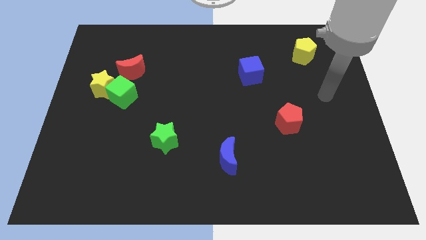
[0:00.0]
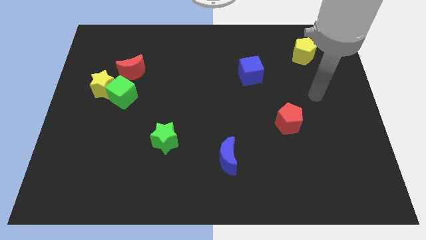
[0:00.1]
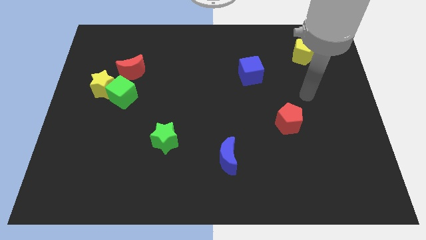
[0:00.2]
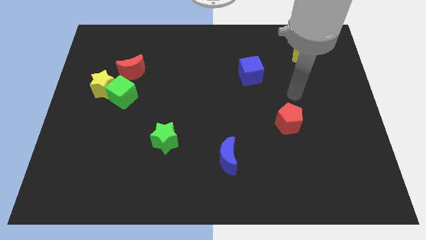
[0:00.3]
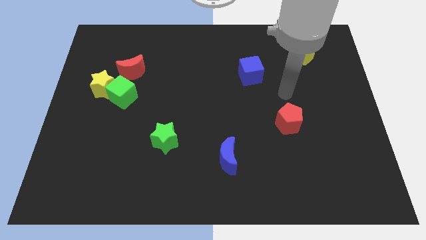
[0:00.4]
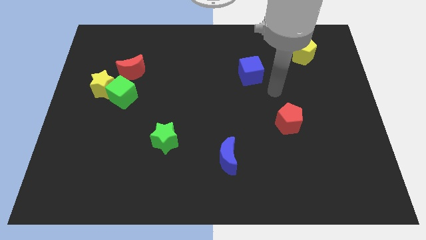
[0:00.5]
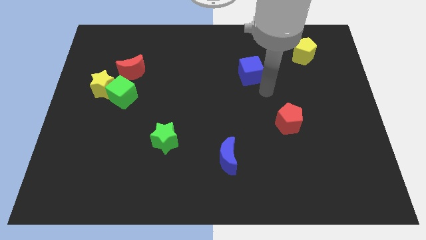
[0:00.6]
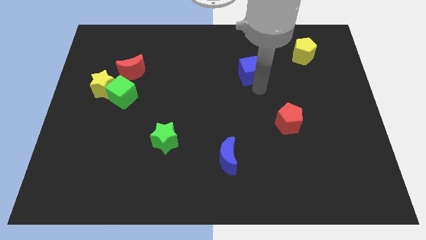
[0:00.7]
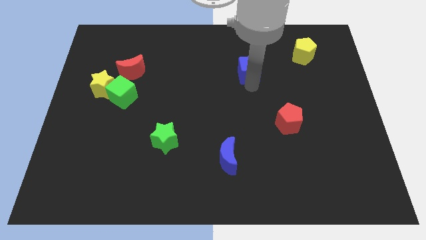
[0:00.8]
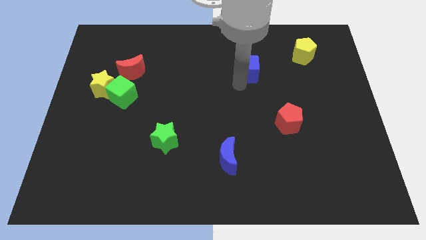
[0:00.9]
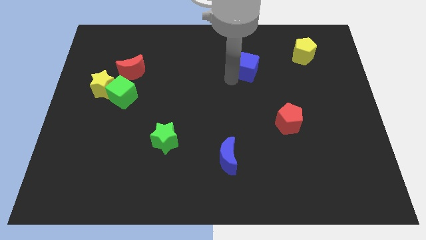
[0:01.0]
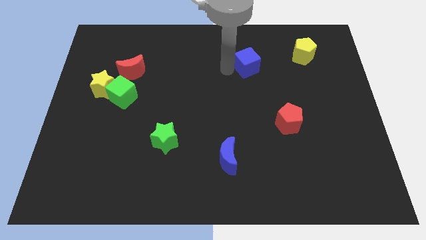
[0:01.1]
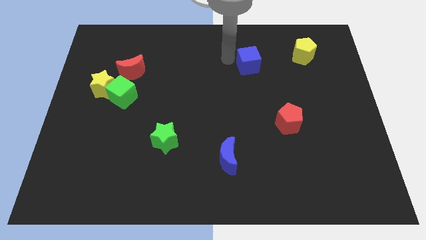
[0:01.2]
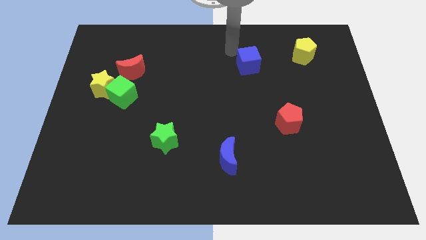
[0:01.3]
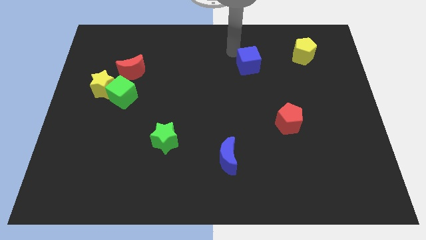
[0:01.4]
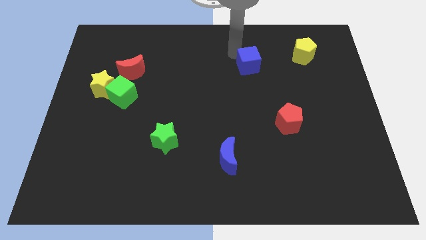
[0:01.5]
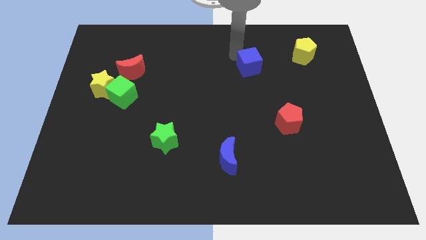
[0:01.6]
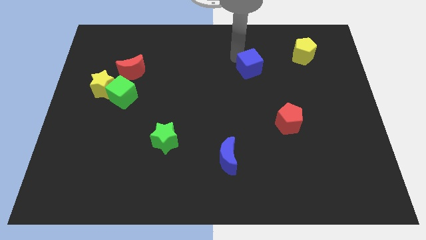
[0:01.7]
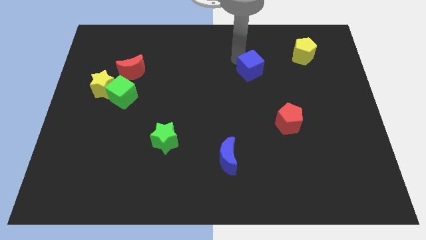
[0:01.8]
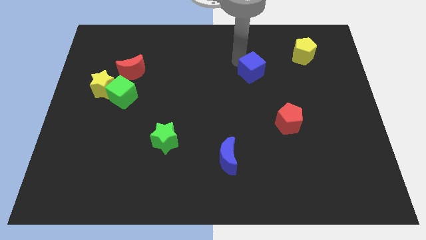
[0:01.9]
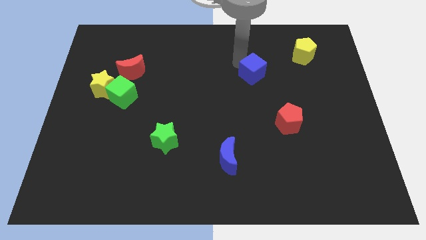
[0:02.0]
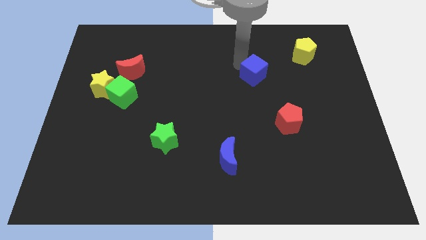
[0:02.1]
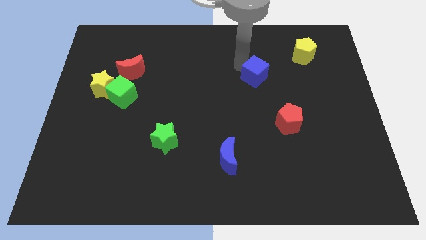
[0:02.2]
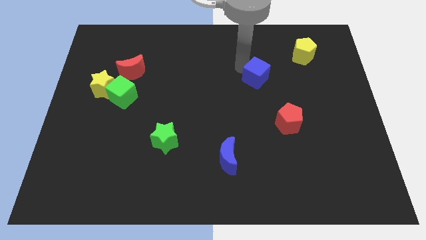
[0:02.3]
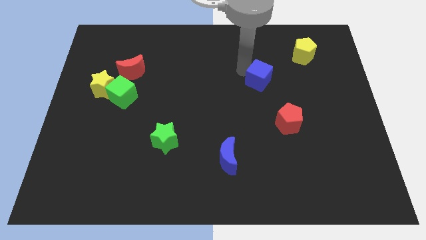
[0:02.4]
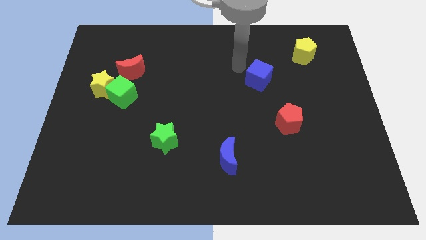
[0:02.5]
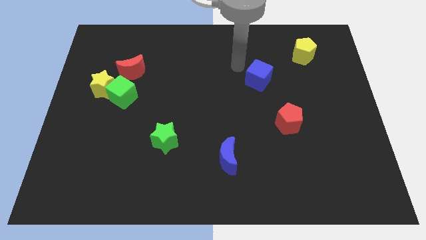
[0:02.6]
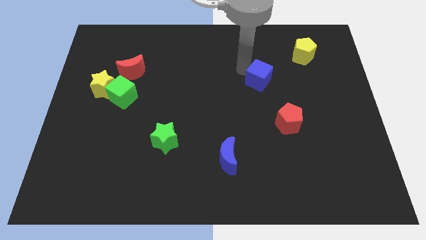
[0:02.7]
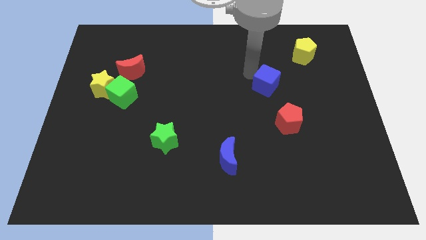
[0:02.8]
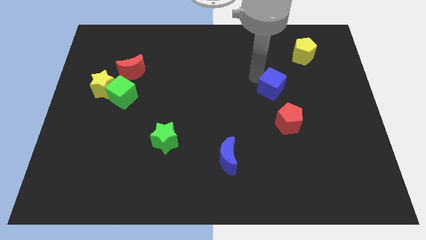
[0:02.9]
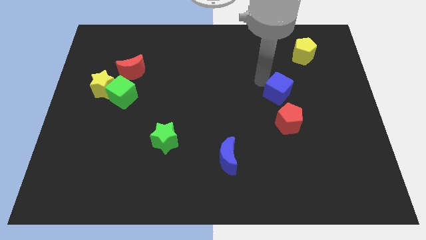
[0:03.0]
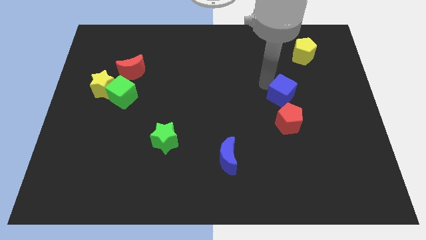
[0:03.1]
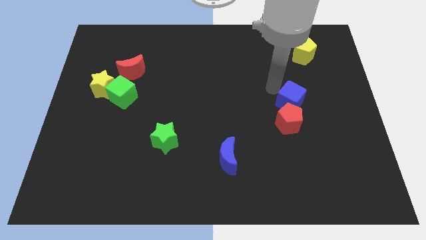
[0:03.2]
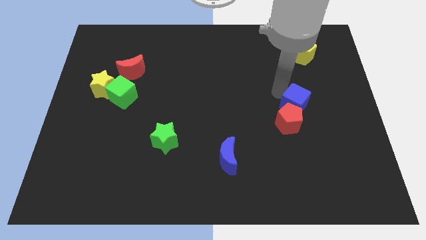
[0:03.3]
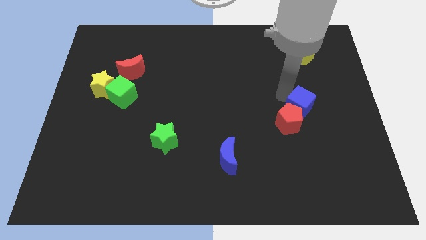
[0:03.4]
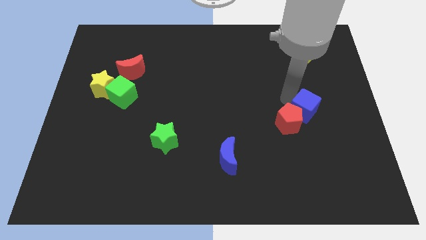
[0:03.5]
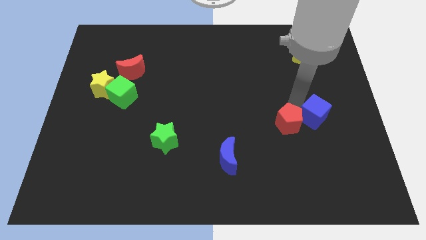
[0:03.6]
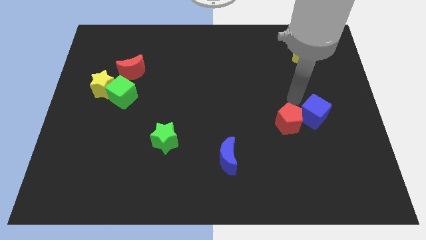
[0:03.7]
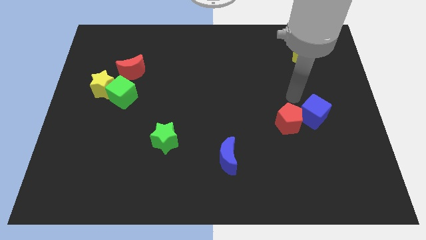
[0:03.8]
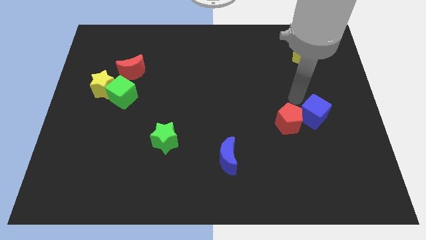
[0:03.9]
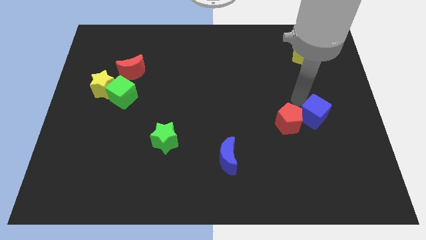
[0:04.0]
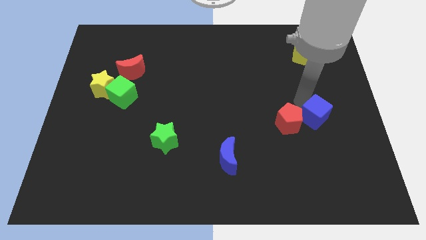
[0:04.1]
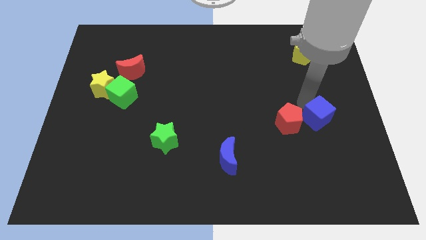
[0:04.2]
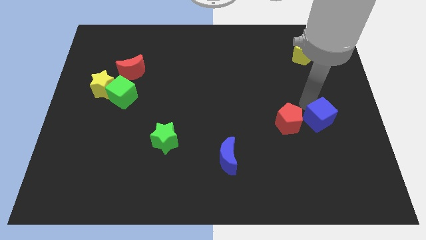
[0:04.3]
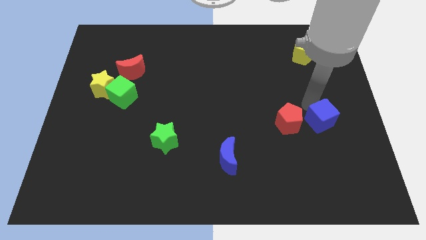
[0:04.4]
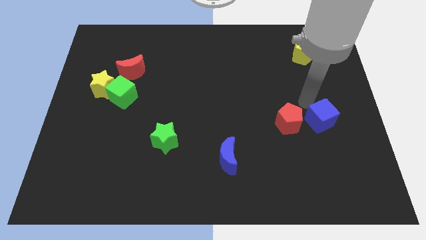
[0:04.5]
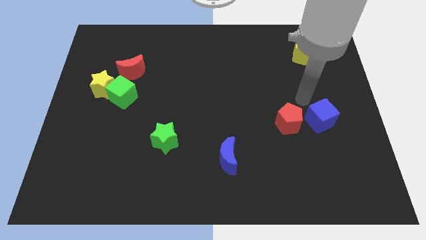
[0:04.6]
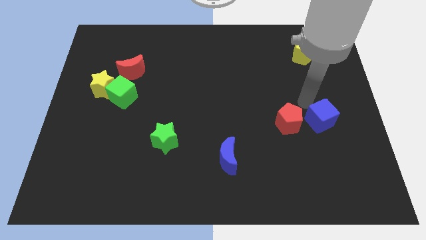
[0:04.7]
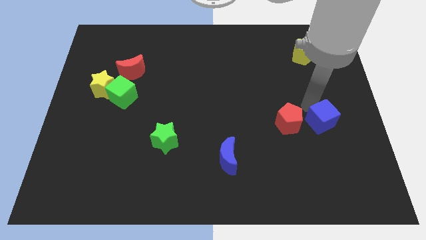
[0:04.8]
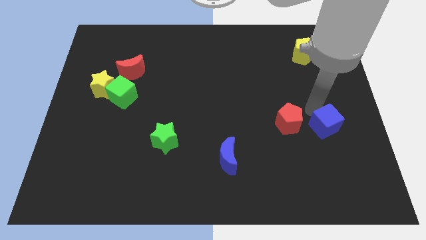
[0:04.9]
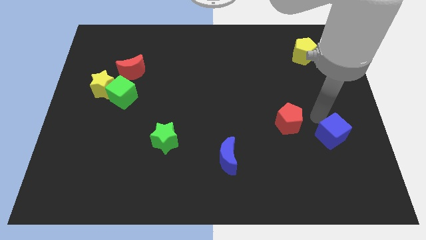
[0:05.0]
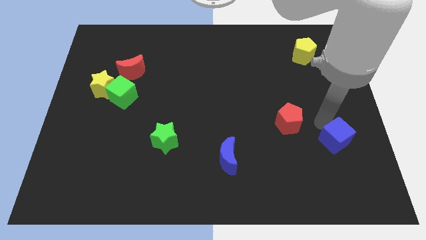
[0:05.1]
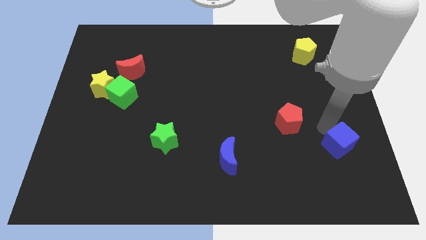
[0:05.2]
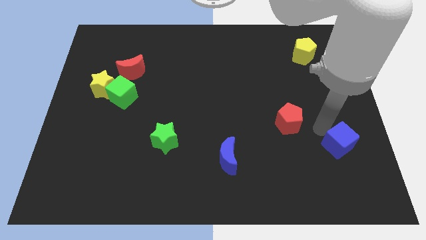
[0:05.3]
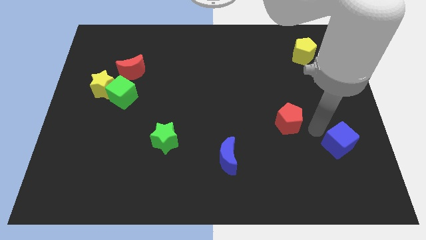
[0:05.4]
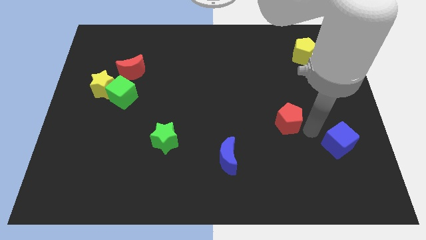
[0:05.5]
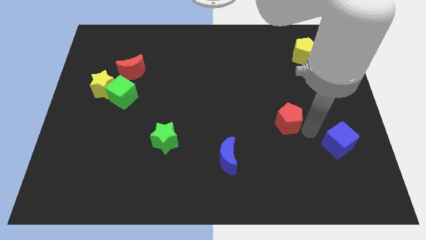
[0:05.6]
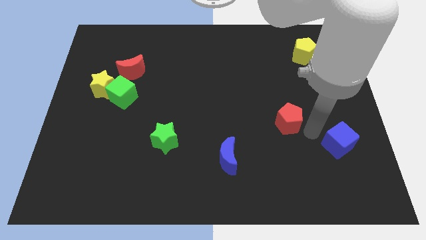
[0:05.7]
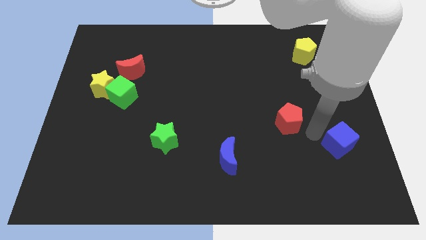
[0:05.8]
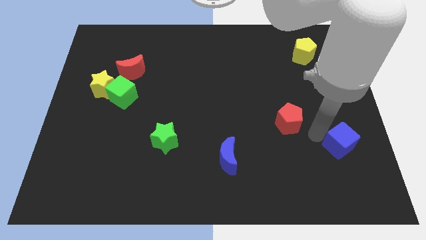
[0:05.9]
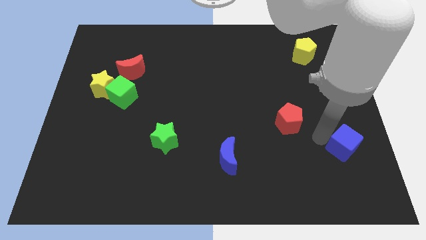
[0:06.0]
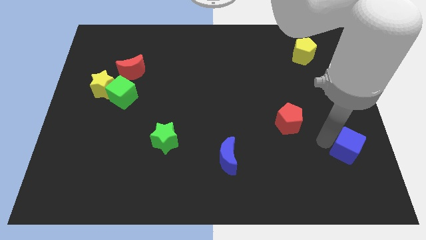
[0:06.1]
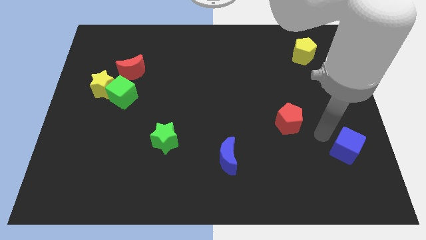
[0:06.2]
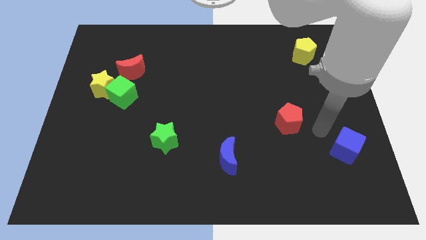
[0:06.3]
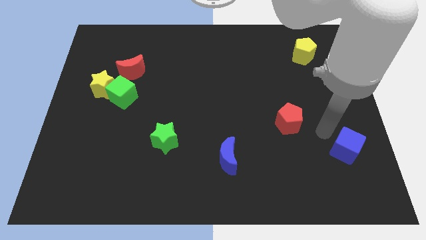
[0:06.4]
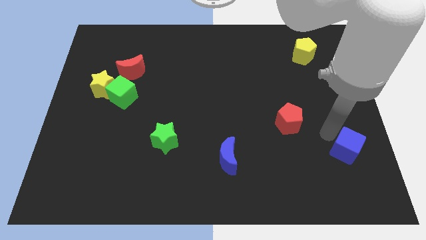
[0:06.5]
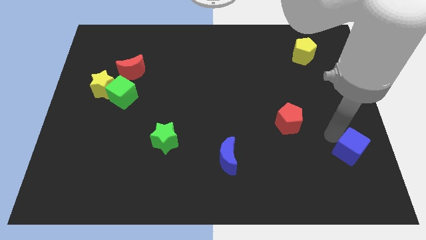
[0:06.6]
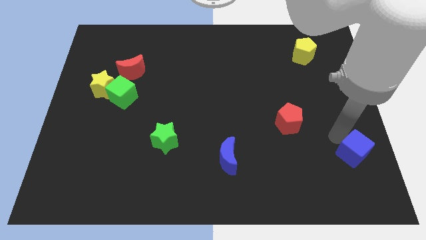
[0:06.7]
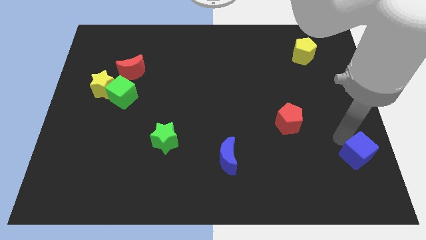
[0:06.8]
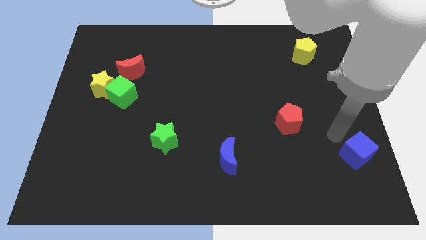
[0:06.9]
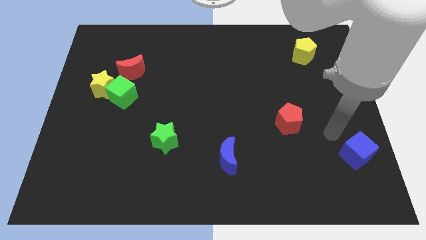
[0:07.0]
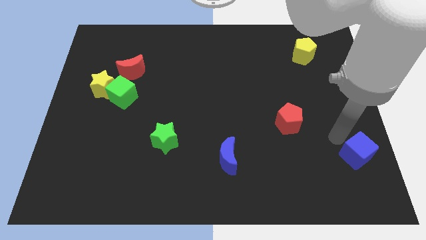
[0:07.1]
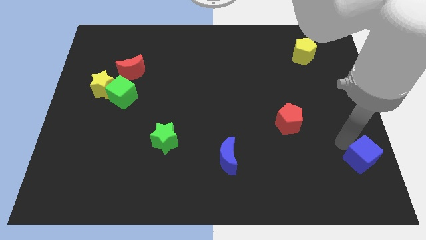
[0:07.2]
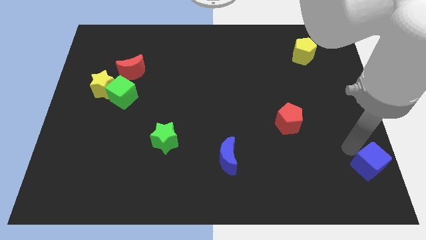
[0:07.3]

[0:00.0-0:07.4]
move the blue cube to the lower right corner
